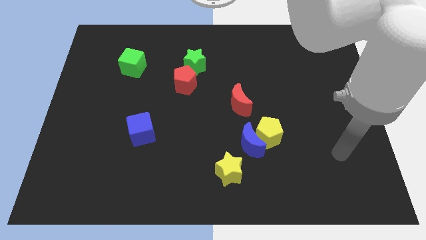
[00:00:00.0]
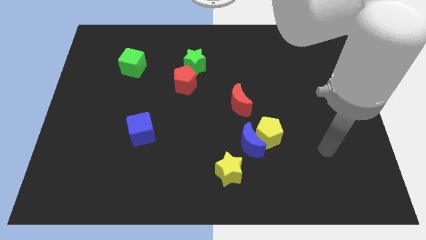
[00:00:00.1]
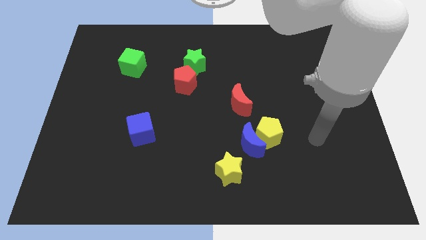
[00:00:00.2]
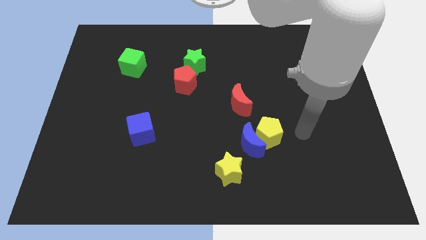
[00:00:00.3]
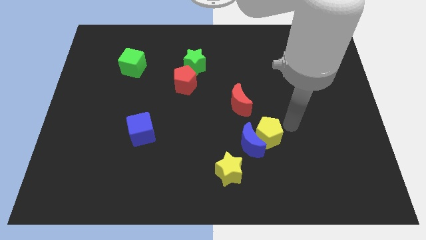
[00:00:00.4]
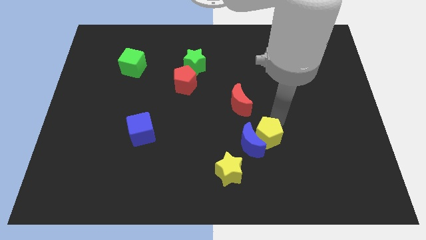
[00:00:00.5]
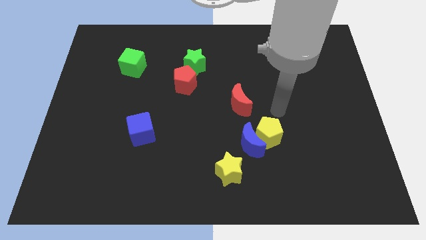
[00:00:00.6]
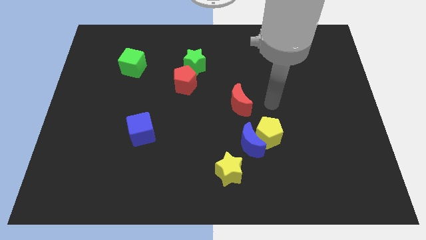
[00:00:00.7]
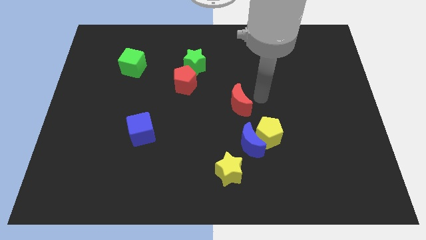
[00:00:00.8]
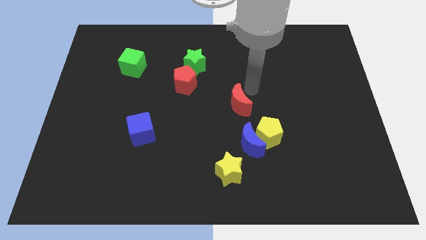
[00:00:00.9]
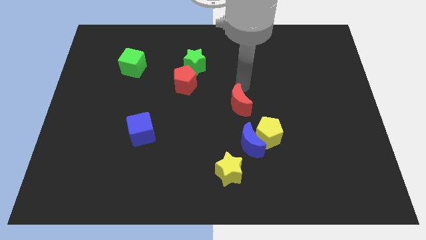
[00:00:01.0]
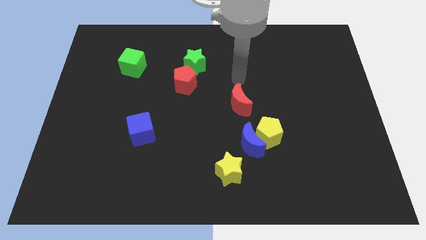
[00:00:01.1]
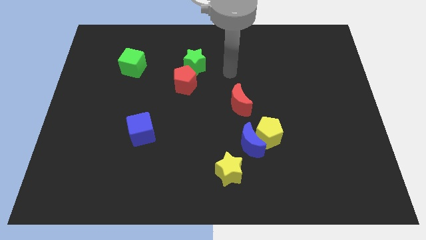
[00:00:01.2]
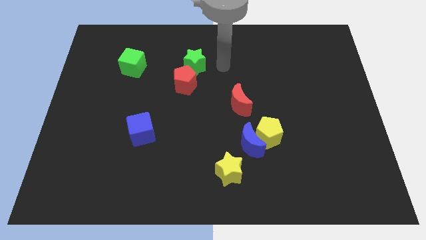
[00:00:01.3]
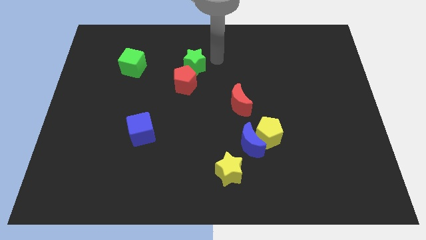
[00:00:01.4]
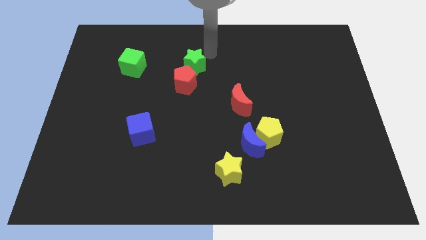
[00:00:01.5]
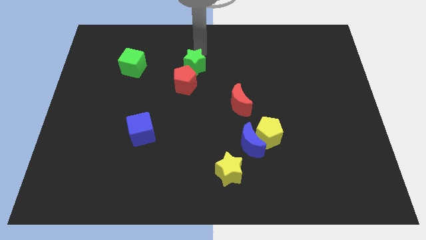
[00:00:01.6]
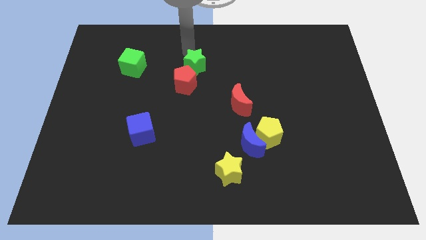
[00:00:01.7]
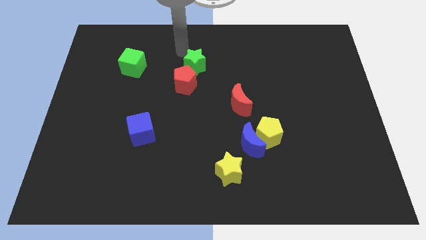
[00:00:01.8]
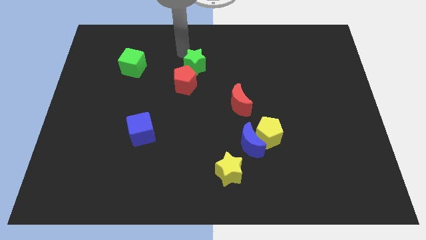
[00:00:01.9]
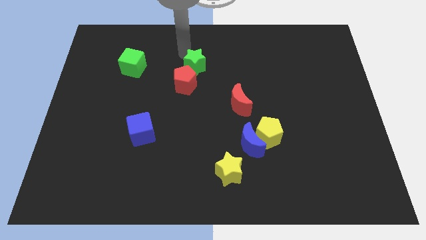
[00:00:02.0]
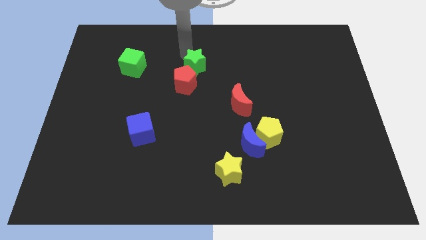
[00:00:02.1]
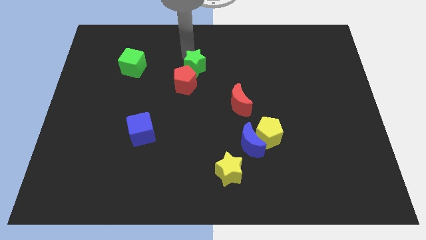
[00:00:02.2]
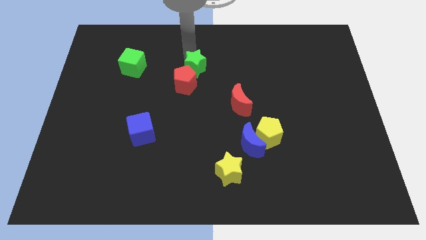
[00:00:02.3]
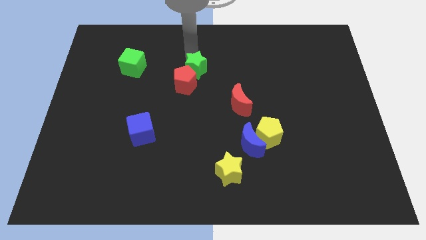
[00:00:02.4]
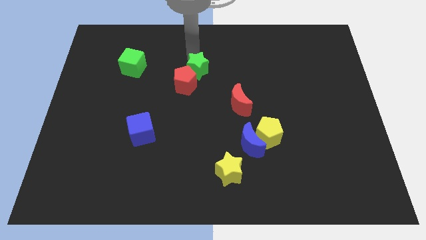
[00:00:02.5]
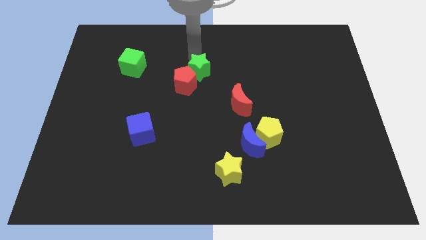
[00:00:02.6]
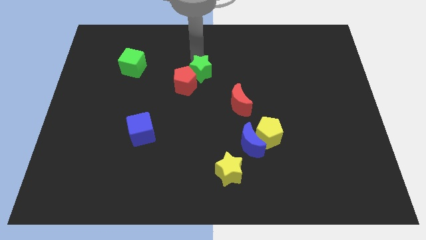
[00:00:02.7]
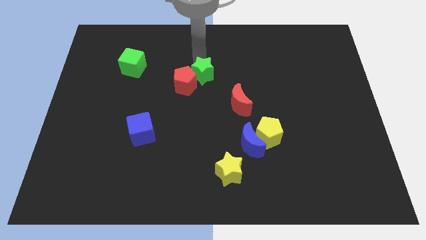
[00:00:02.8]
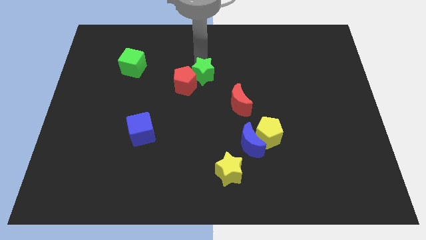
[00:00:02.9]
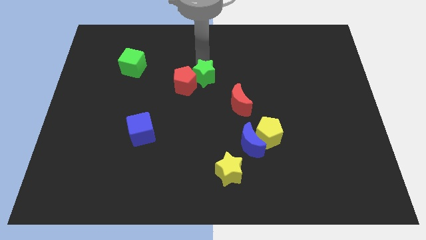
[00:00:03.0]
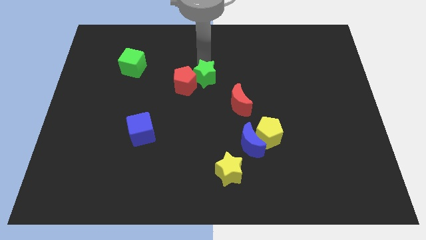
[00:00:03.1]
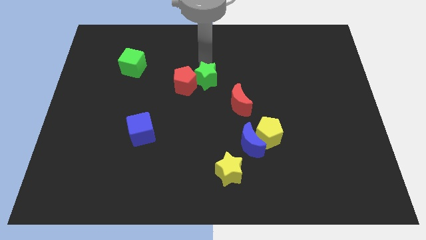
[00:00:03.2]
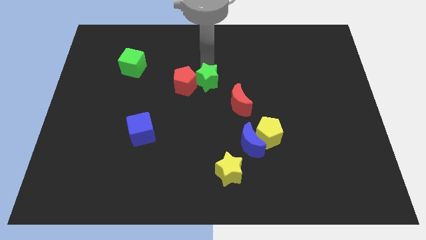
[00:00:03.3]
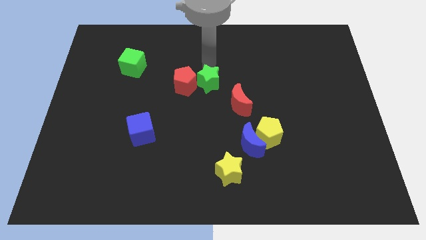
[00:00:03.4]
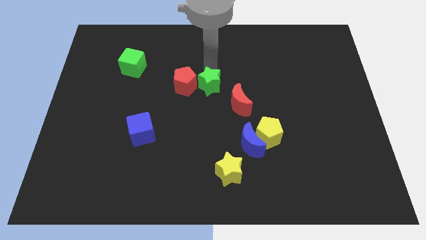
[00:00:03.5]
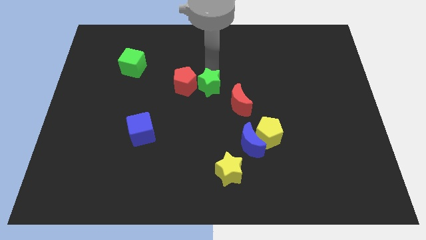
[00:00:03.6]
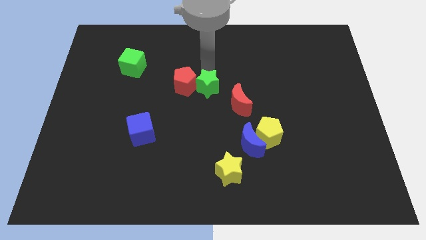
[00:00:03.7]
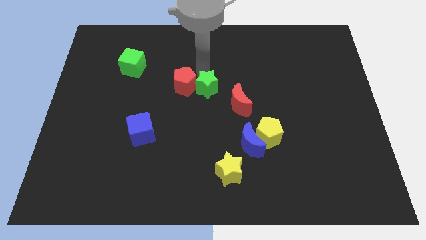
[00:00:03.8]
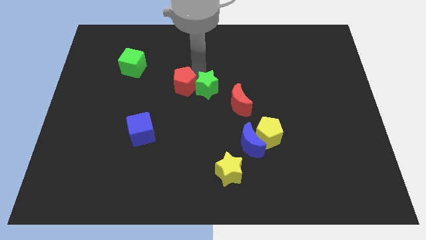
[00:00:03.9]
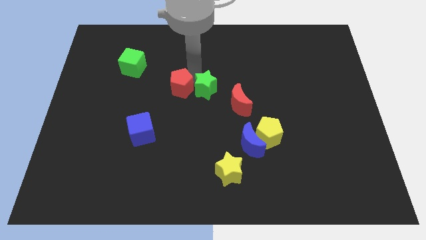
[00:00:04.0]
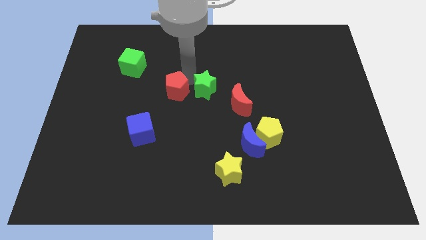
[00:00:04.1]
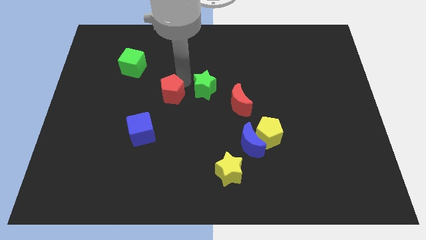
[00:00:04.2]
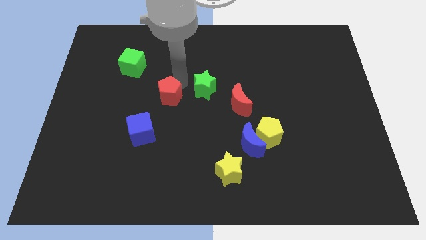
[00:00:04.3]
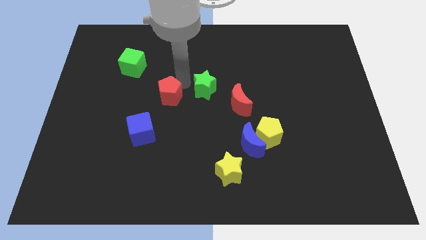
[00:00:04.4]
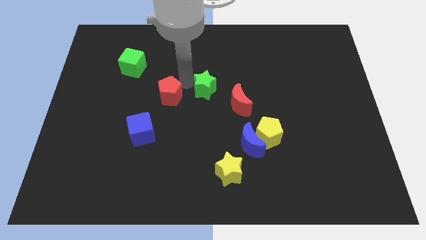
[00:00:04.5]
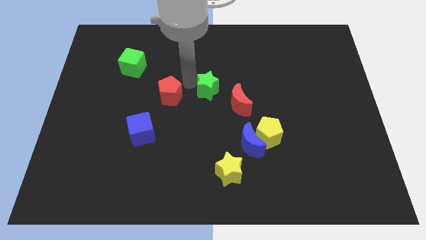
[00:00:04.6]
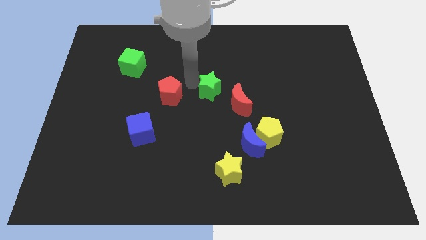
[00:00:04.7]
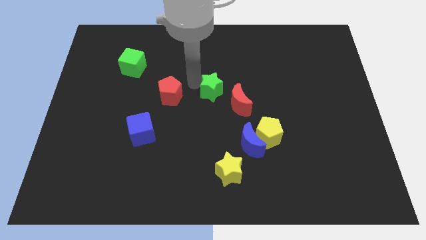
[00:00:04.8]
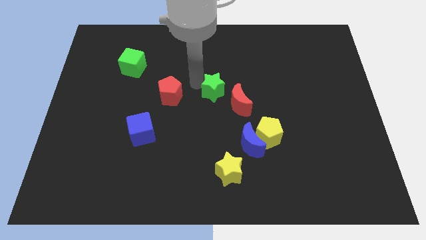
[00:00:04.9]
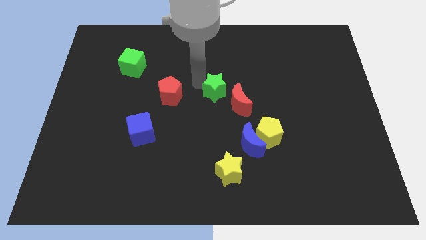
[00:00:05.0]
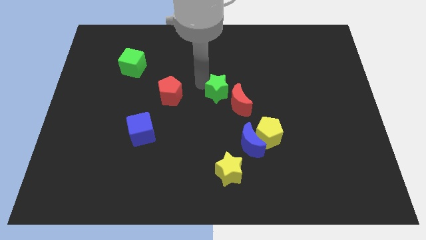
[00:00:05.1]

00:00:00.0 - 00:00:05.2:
push the green star towards the red moon

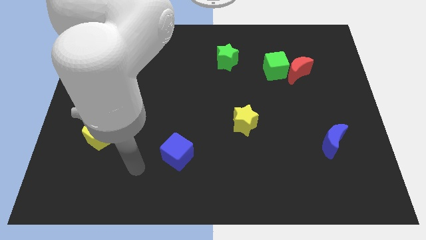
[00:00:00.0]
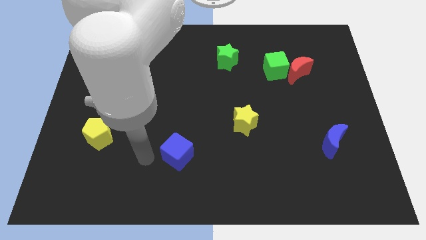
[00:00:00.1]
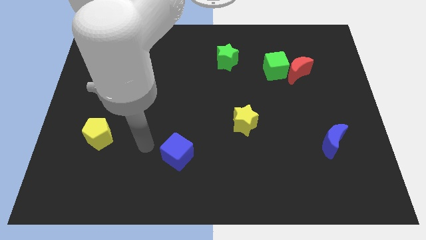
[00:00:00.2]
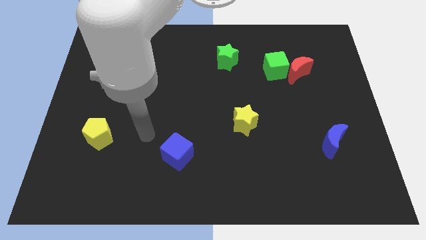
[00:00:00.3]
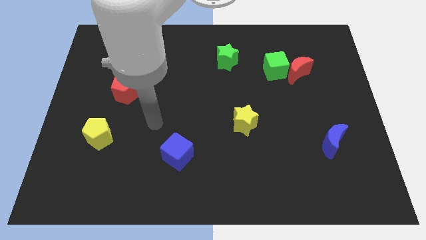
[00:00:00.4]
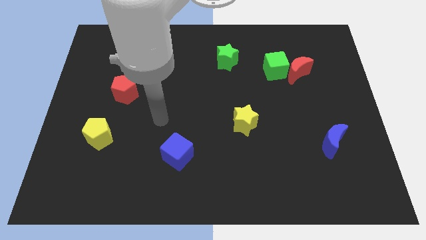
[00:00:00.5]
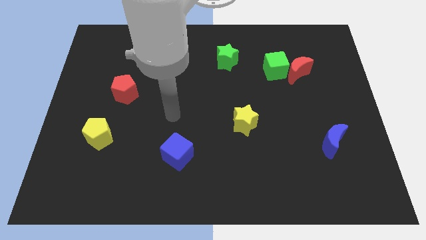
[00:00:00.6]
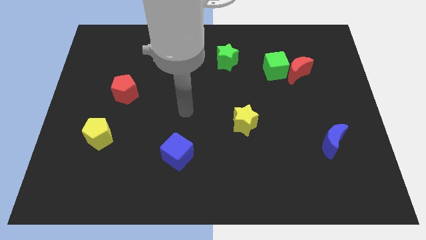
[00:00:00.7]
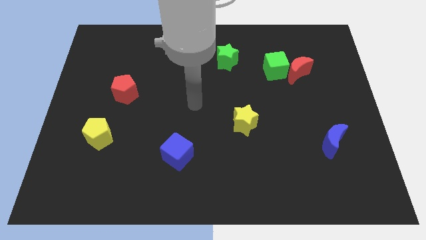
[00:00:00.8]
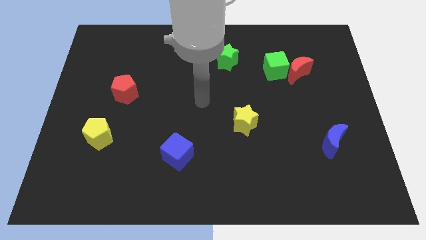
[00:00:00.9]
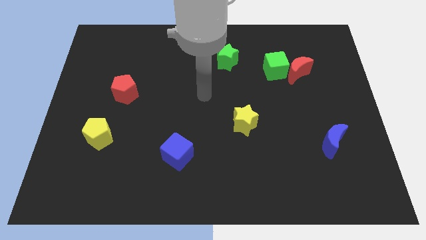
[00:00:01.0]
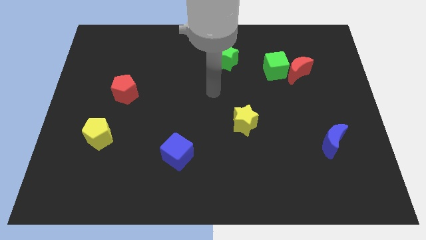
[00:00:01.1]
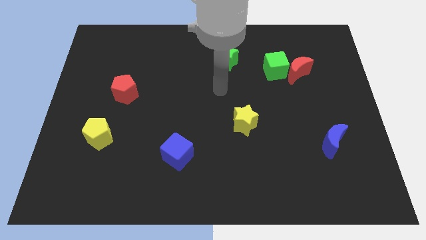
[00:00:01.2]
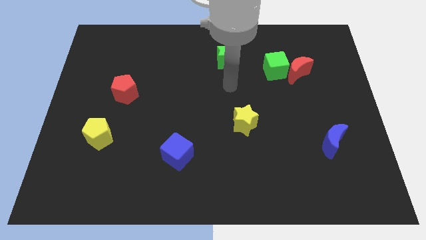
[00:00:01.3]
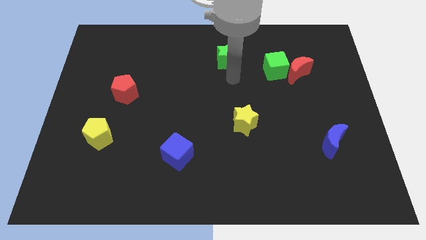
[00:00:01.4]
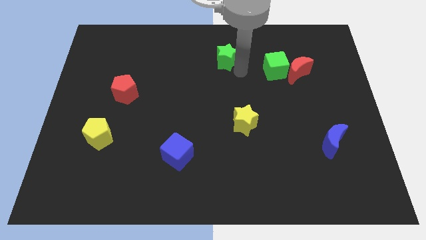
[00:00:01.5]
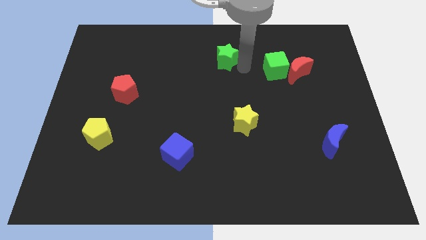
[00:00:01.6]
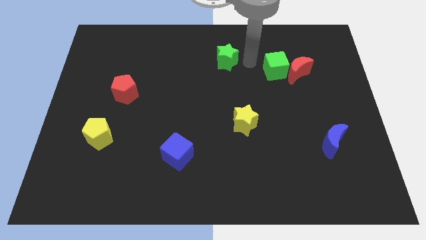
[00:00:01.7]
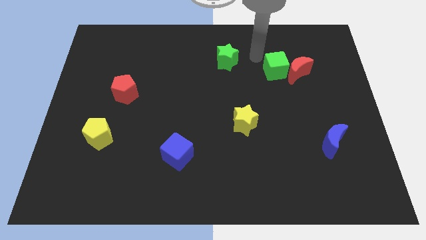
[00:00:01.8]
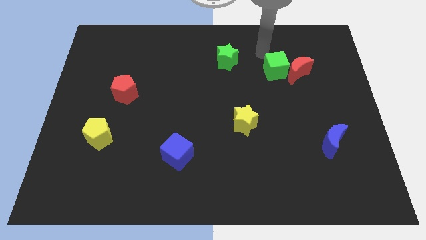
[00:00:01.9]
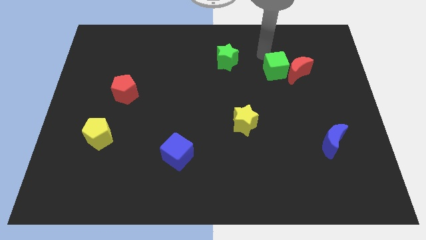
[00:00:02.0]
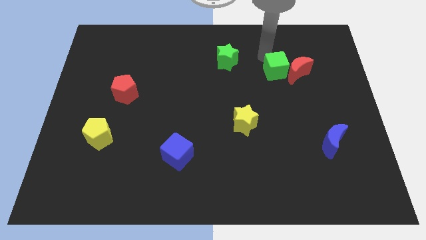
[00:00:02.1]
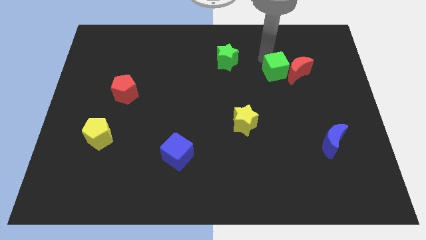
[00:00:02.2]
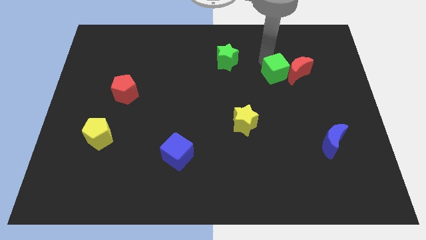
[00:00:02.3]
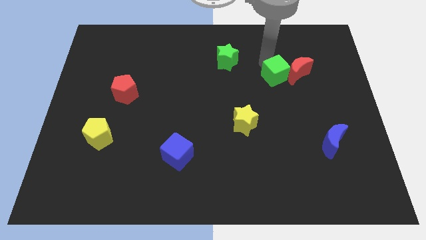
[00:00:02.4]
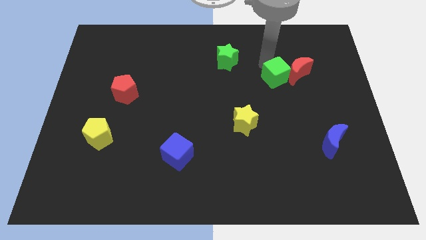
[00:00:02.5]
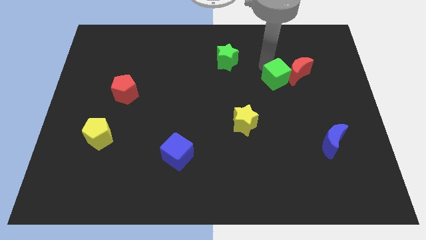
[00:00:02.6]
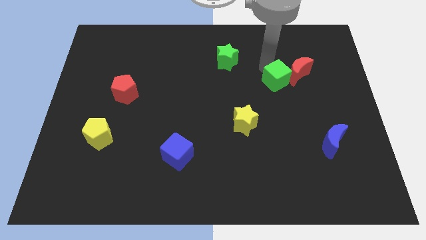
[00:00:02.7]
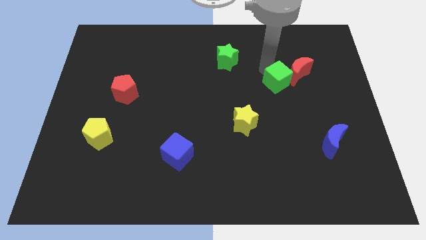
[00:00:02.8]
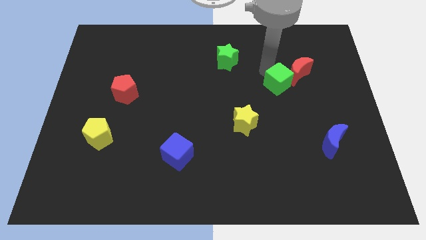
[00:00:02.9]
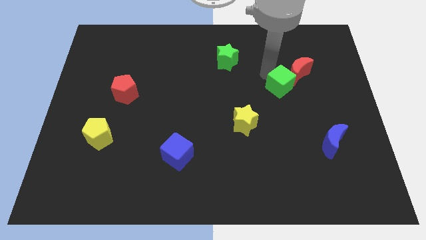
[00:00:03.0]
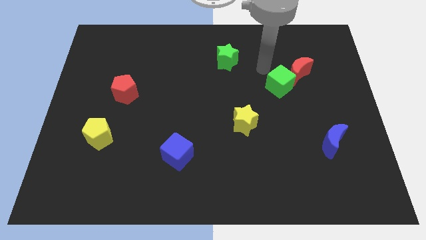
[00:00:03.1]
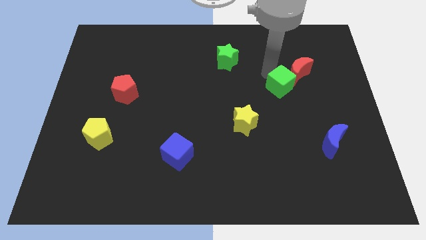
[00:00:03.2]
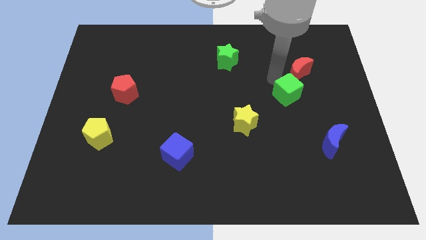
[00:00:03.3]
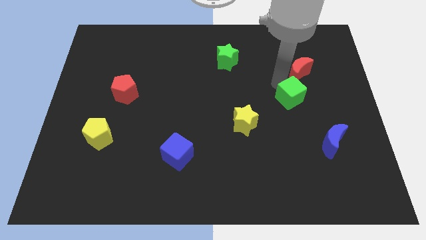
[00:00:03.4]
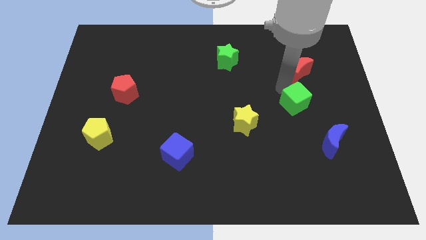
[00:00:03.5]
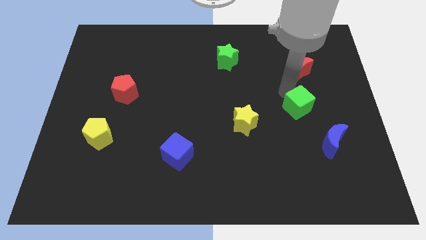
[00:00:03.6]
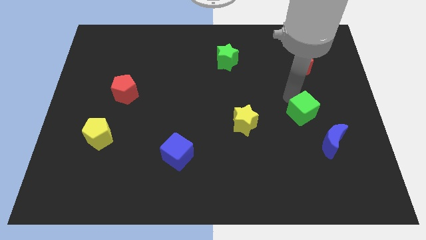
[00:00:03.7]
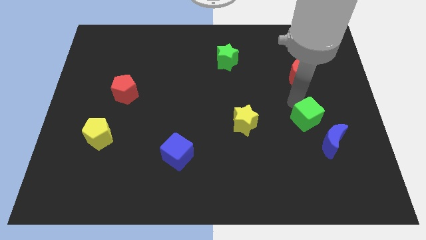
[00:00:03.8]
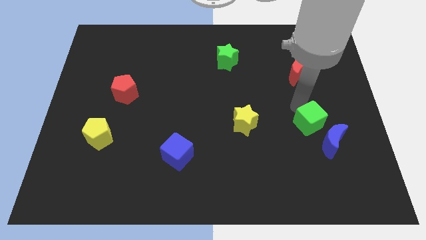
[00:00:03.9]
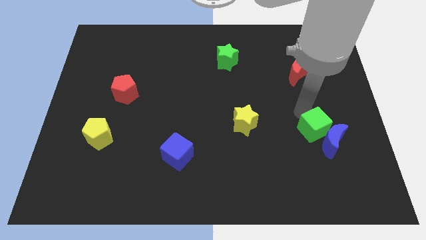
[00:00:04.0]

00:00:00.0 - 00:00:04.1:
put the green cube to the blue moon
